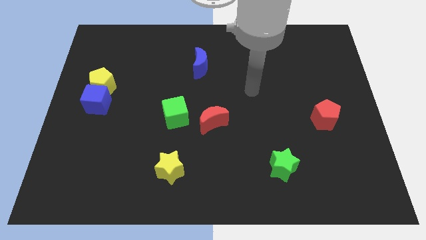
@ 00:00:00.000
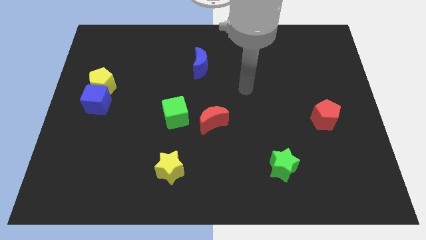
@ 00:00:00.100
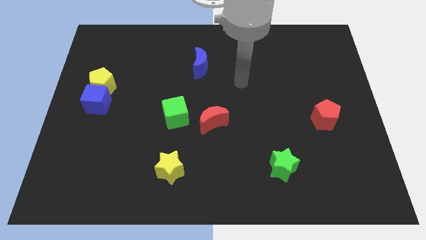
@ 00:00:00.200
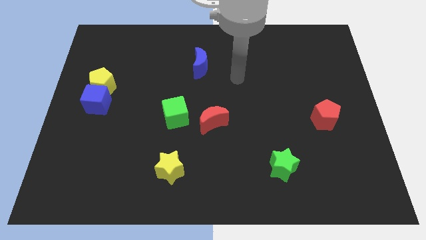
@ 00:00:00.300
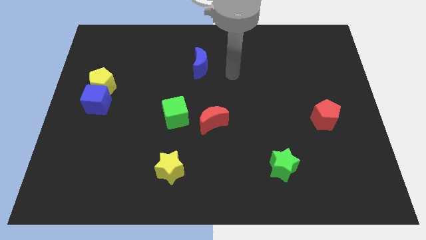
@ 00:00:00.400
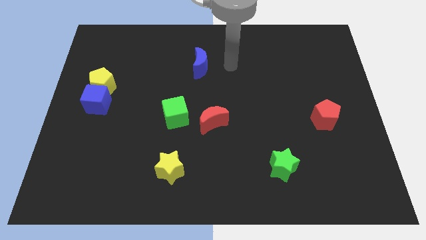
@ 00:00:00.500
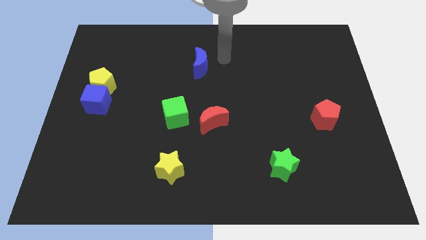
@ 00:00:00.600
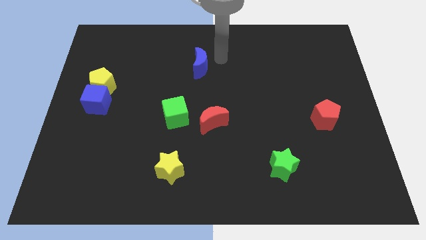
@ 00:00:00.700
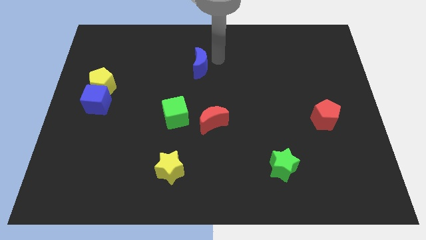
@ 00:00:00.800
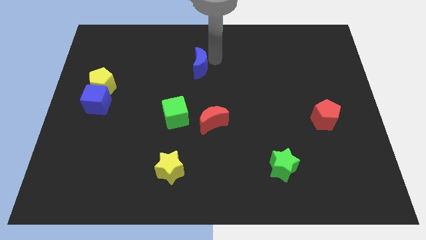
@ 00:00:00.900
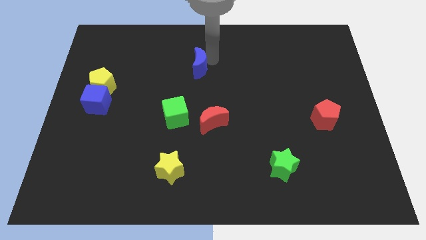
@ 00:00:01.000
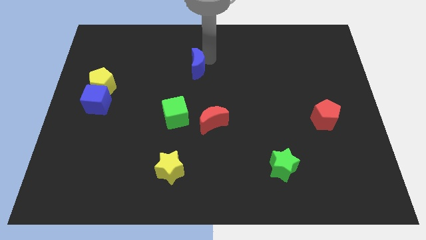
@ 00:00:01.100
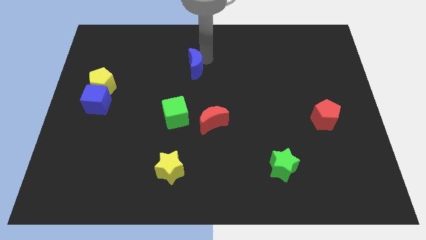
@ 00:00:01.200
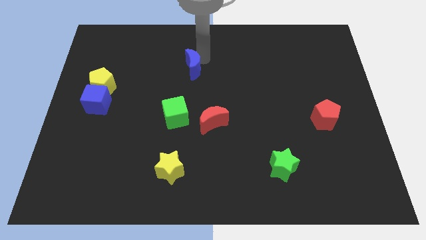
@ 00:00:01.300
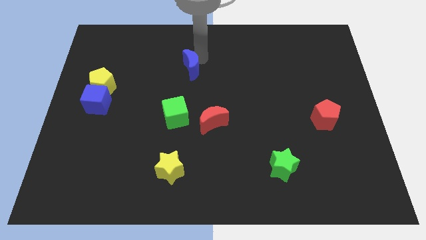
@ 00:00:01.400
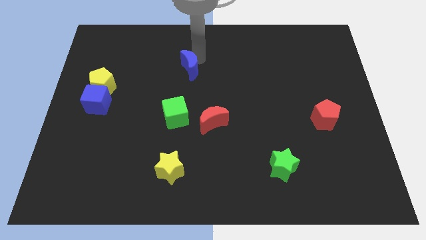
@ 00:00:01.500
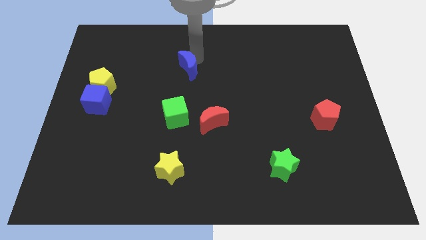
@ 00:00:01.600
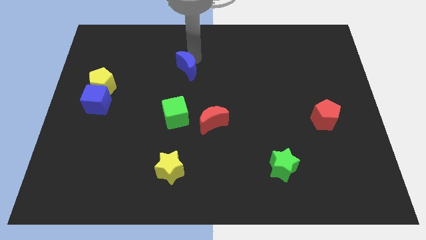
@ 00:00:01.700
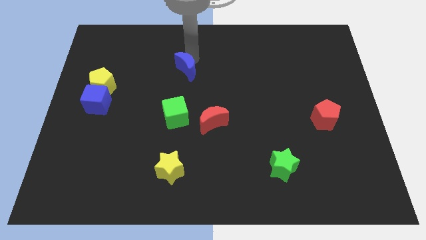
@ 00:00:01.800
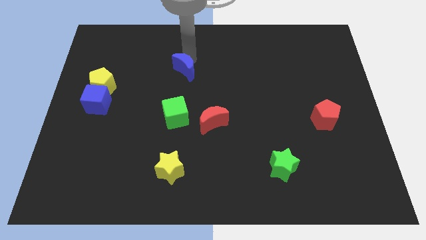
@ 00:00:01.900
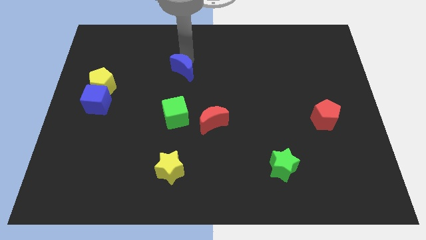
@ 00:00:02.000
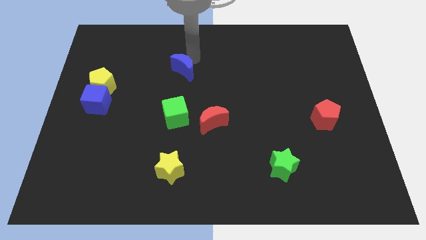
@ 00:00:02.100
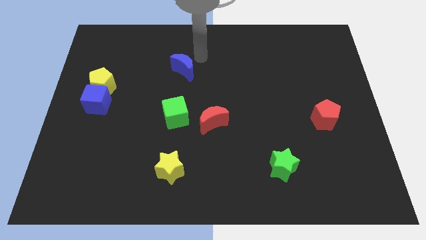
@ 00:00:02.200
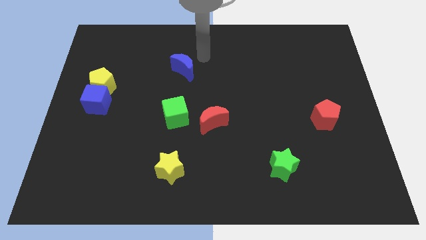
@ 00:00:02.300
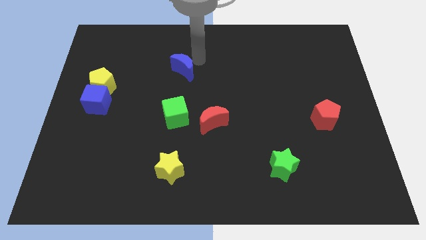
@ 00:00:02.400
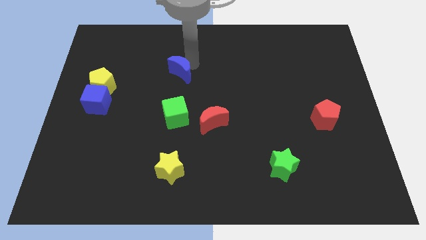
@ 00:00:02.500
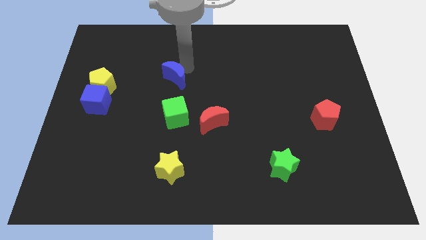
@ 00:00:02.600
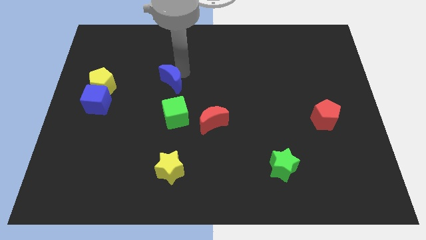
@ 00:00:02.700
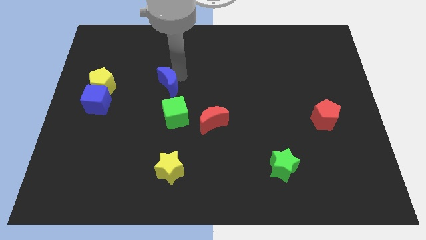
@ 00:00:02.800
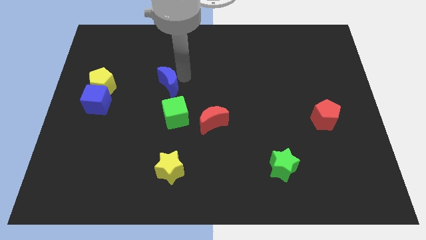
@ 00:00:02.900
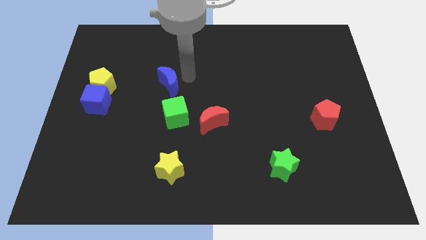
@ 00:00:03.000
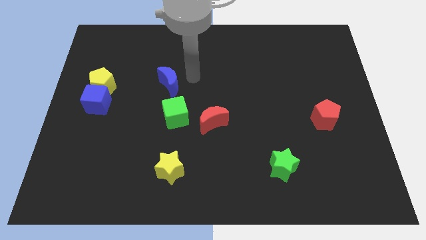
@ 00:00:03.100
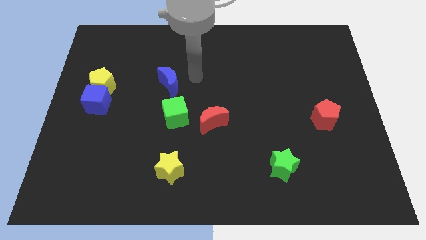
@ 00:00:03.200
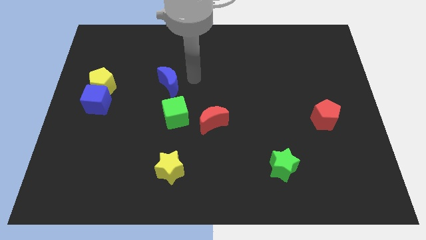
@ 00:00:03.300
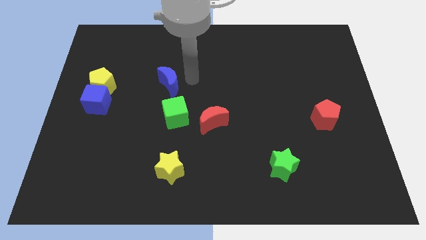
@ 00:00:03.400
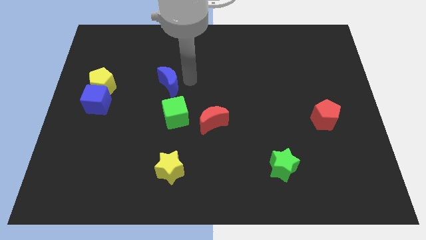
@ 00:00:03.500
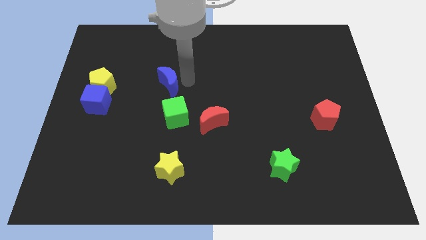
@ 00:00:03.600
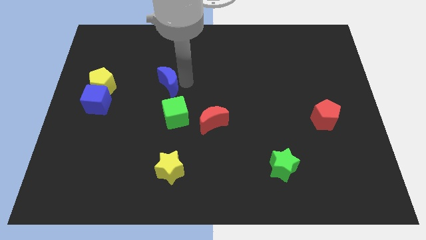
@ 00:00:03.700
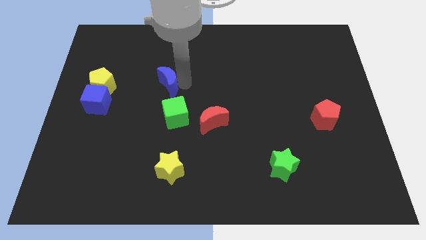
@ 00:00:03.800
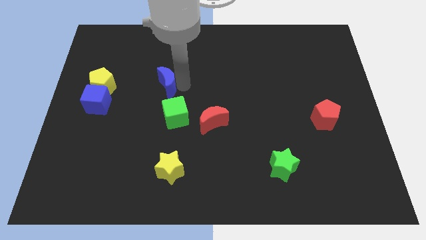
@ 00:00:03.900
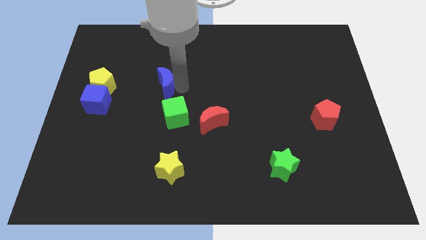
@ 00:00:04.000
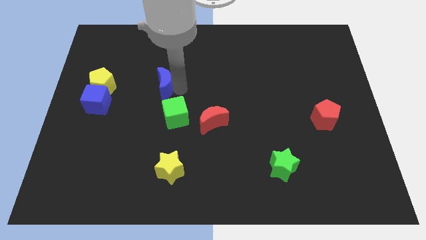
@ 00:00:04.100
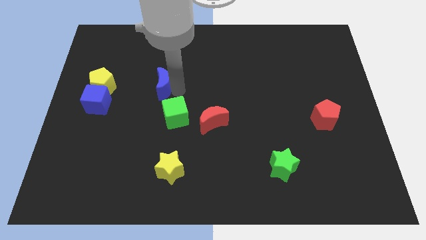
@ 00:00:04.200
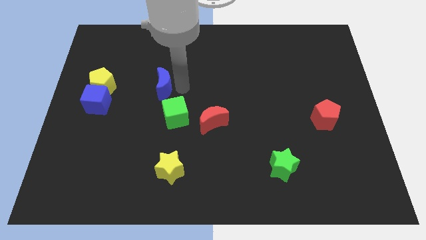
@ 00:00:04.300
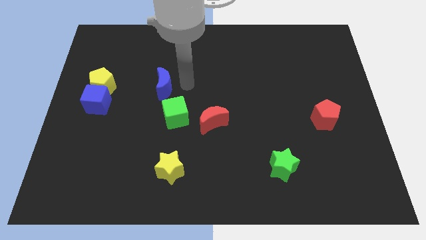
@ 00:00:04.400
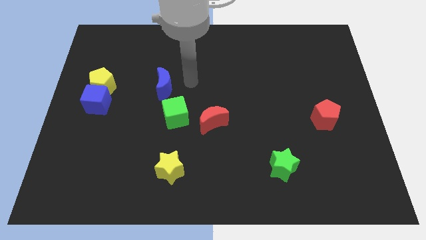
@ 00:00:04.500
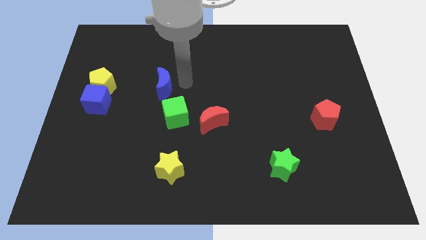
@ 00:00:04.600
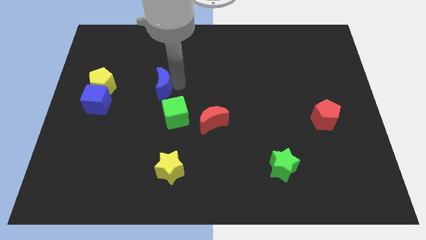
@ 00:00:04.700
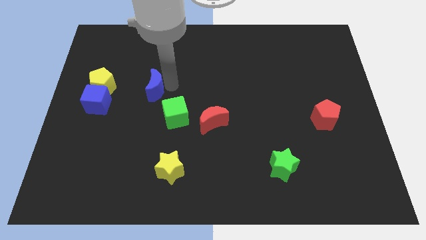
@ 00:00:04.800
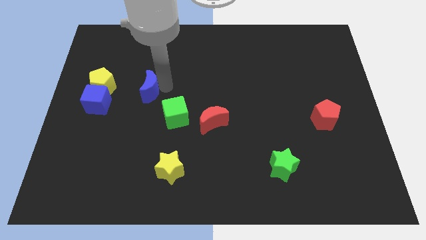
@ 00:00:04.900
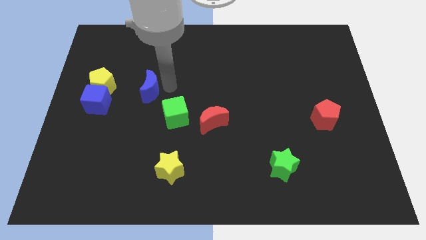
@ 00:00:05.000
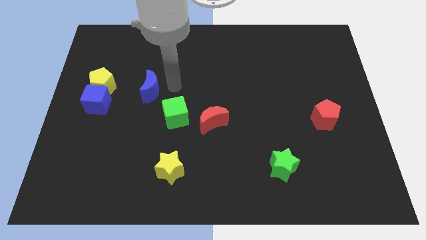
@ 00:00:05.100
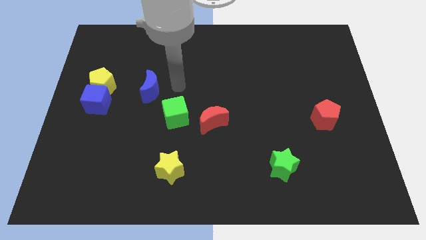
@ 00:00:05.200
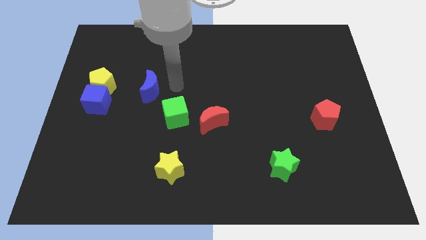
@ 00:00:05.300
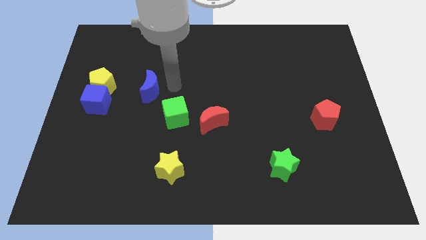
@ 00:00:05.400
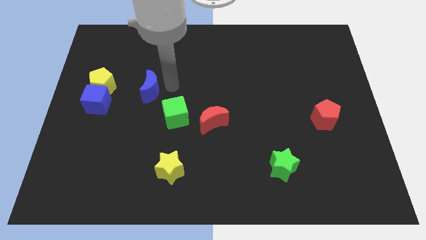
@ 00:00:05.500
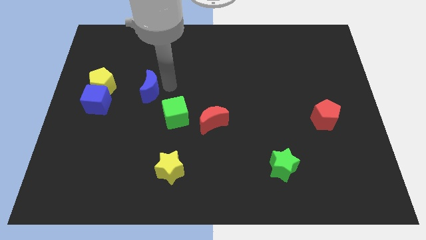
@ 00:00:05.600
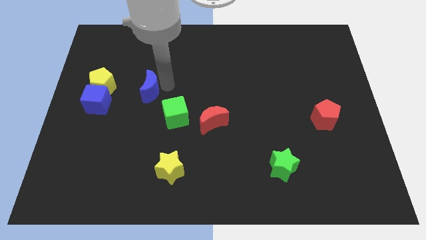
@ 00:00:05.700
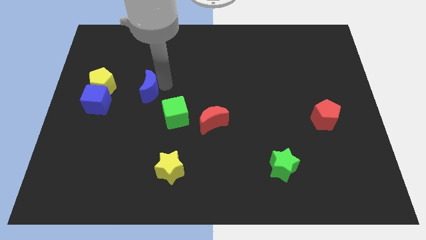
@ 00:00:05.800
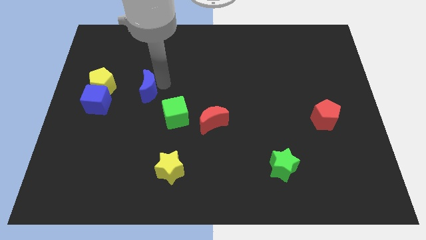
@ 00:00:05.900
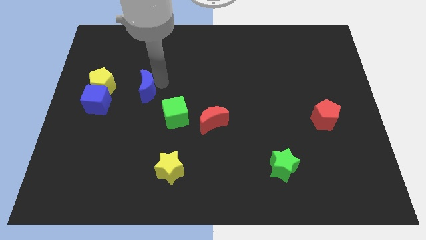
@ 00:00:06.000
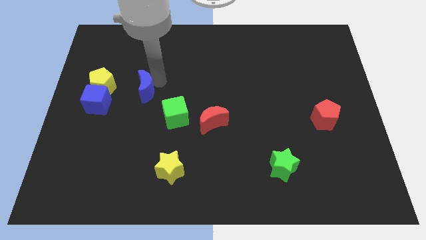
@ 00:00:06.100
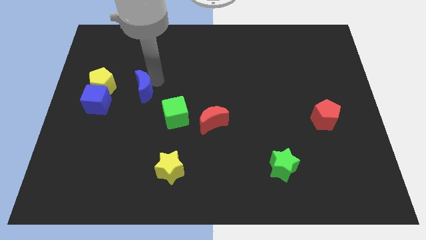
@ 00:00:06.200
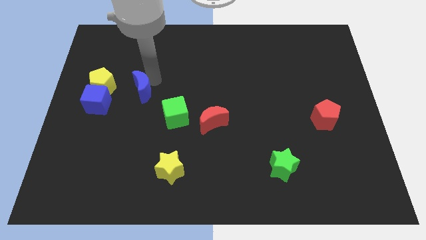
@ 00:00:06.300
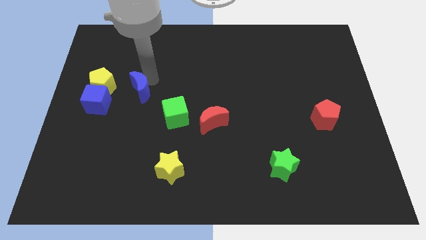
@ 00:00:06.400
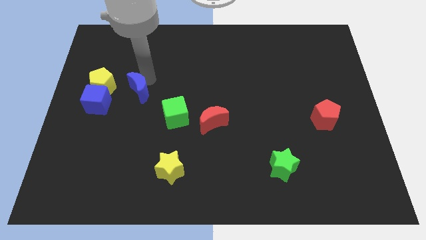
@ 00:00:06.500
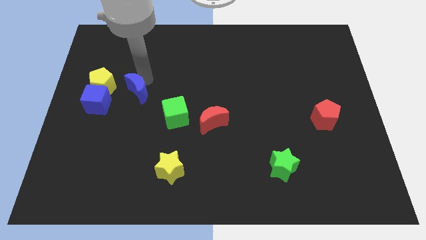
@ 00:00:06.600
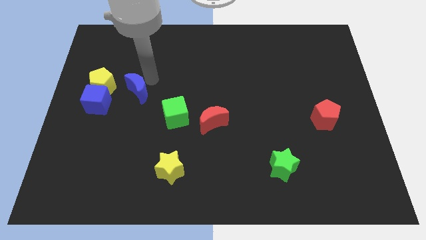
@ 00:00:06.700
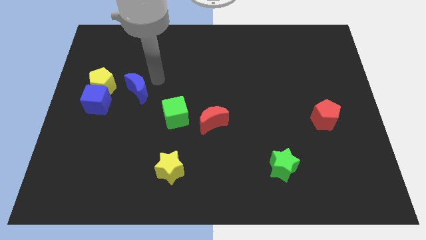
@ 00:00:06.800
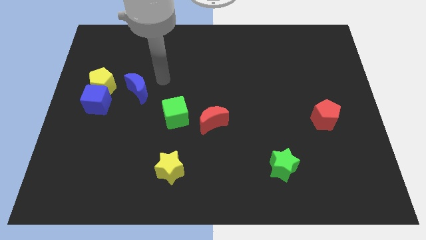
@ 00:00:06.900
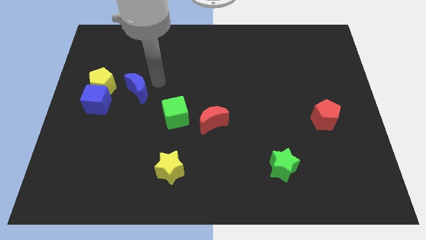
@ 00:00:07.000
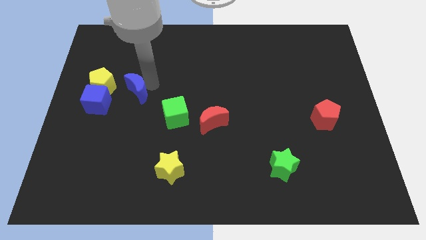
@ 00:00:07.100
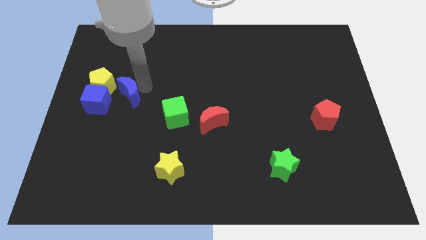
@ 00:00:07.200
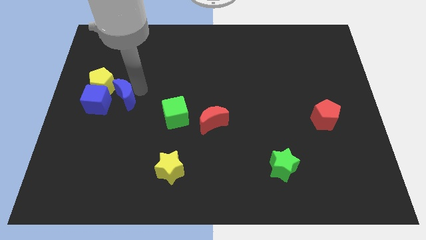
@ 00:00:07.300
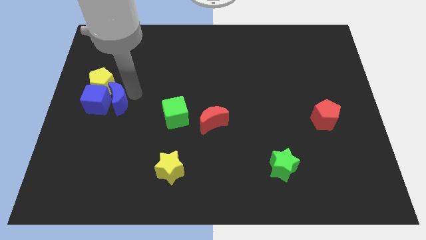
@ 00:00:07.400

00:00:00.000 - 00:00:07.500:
push the blue moon to the blue cube
